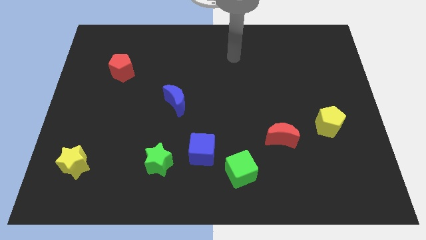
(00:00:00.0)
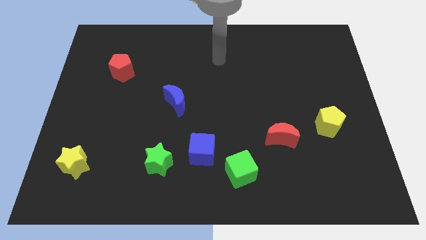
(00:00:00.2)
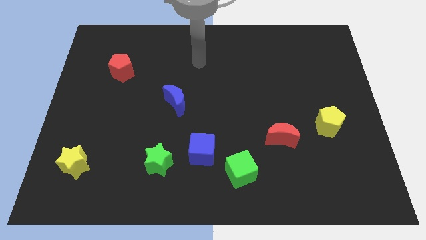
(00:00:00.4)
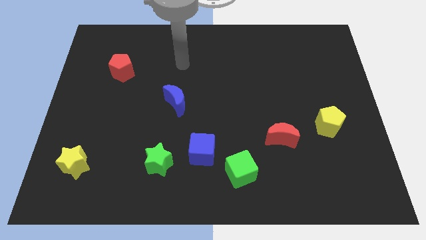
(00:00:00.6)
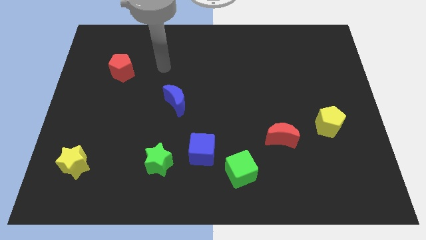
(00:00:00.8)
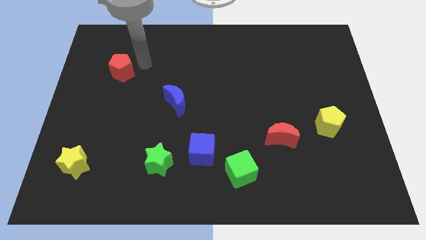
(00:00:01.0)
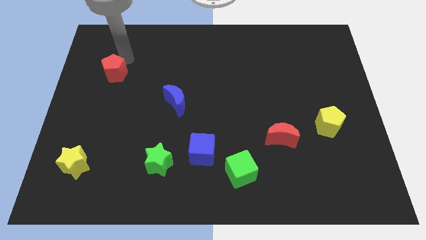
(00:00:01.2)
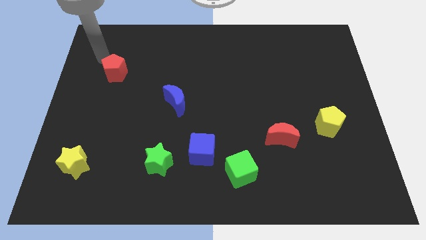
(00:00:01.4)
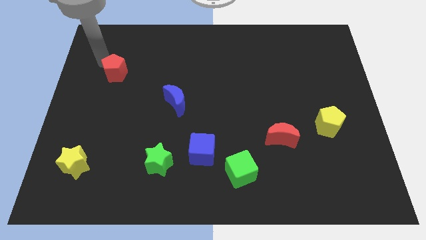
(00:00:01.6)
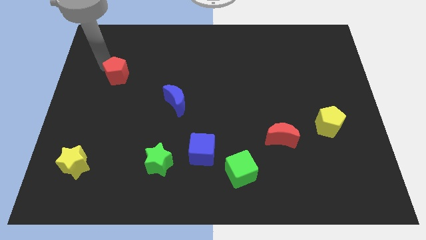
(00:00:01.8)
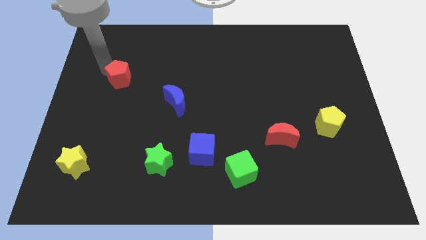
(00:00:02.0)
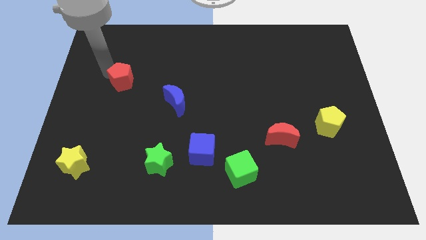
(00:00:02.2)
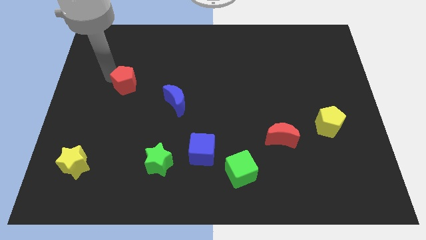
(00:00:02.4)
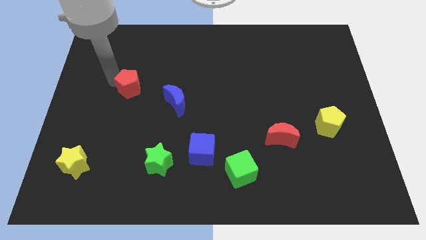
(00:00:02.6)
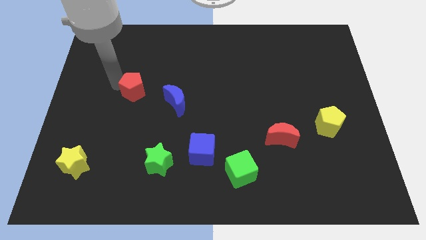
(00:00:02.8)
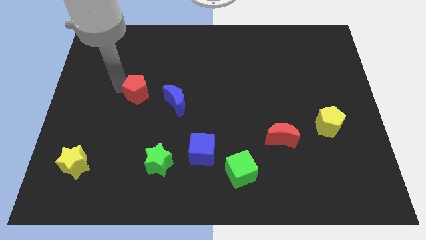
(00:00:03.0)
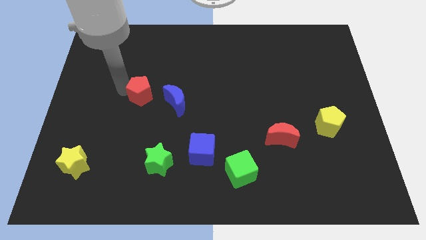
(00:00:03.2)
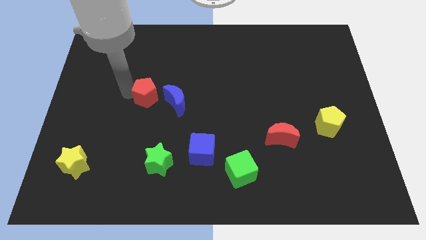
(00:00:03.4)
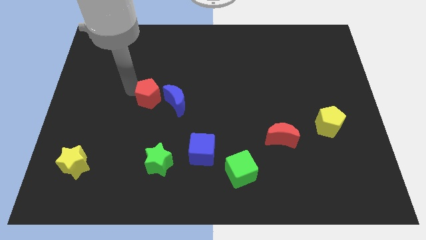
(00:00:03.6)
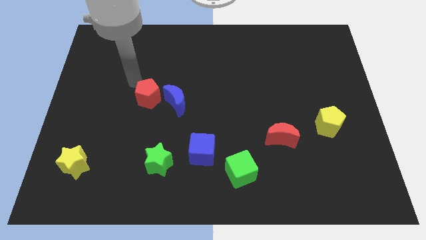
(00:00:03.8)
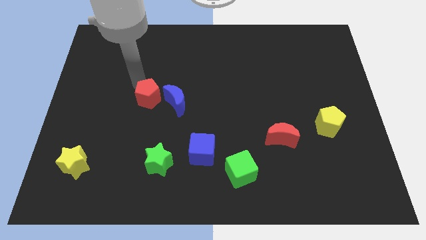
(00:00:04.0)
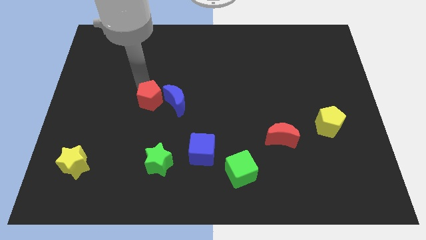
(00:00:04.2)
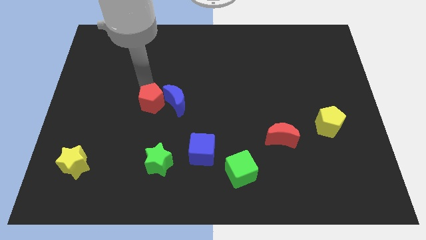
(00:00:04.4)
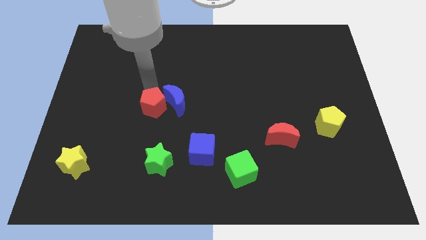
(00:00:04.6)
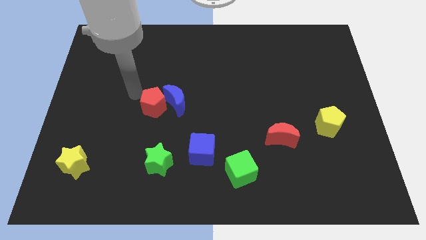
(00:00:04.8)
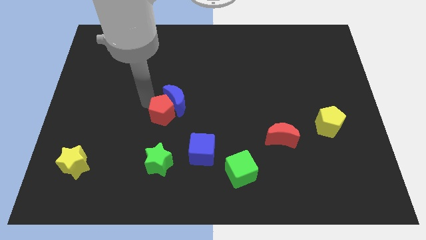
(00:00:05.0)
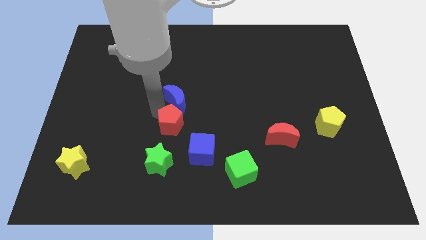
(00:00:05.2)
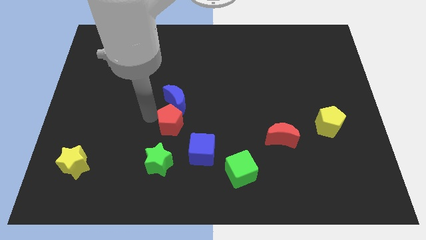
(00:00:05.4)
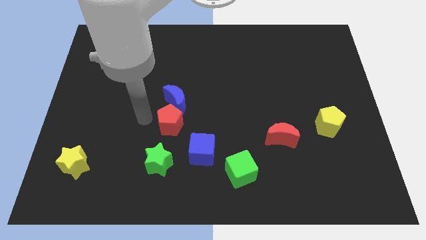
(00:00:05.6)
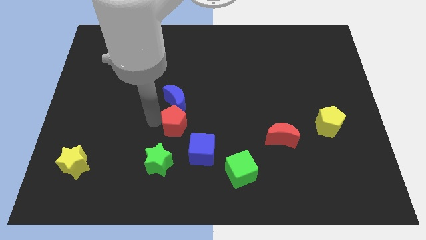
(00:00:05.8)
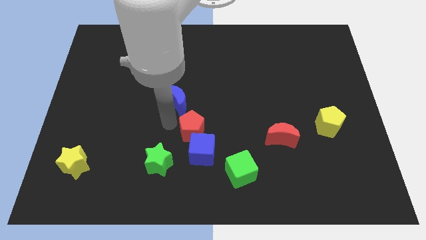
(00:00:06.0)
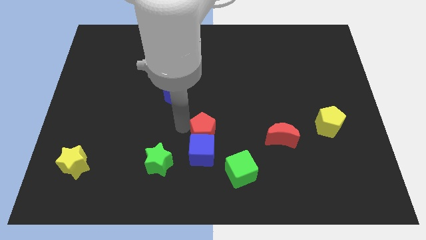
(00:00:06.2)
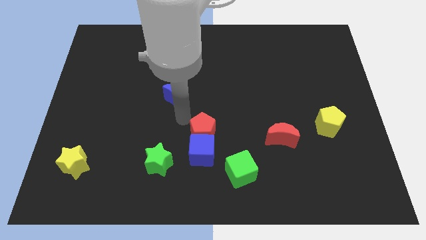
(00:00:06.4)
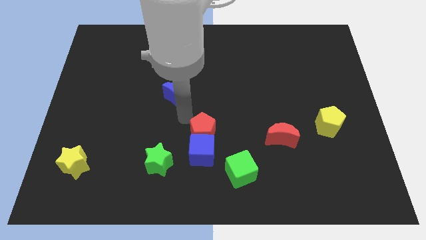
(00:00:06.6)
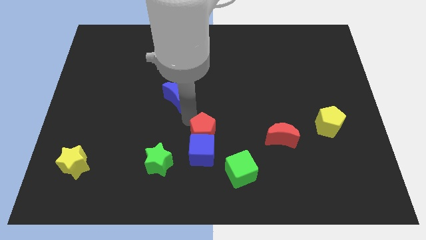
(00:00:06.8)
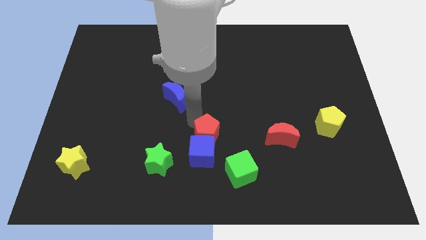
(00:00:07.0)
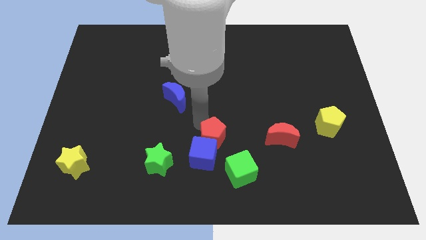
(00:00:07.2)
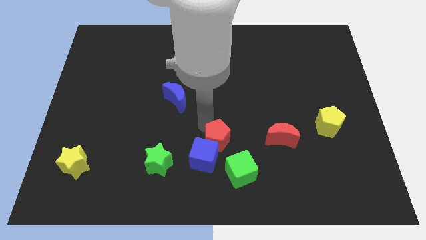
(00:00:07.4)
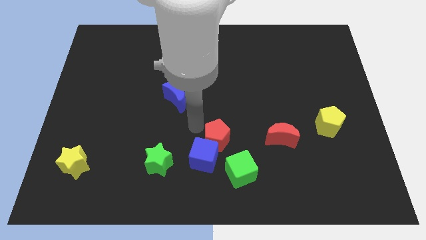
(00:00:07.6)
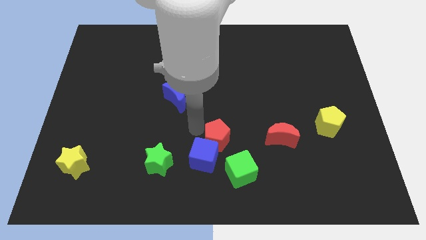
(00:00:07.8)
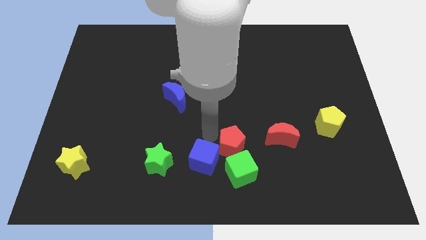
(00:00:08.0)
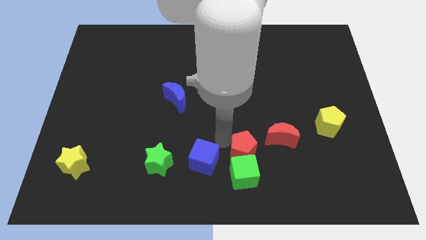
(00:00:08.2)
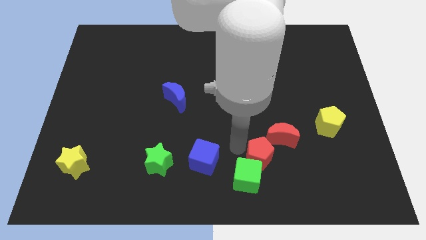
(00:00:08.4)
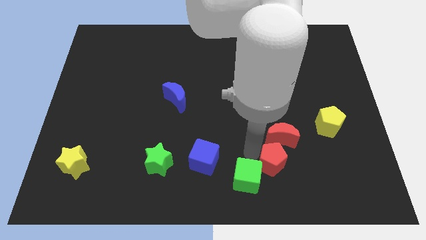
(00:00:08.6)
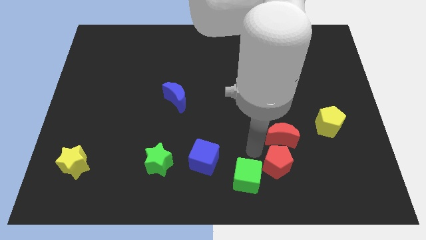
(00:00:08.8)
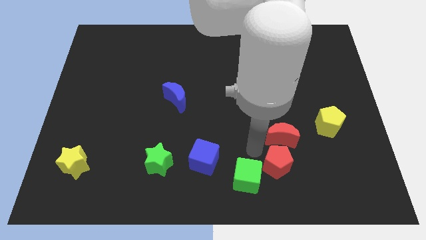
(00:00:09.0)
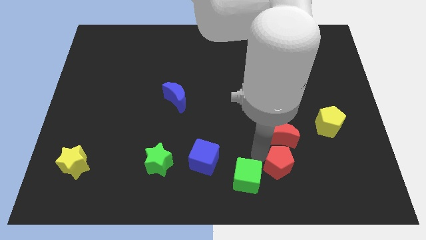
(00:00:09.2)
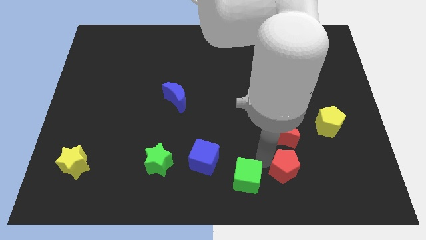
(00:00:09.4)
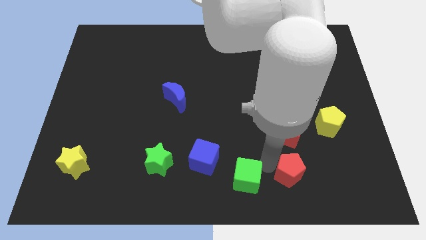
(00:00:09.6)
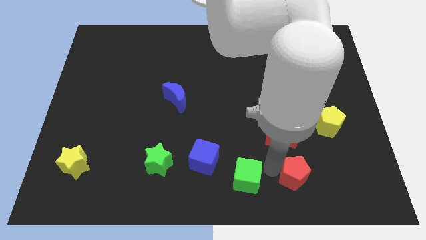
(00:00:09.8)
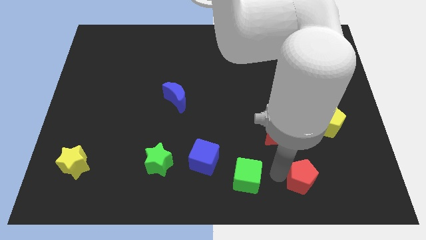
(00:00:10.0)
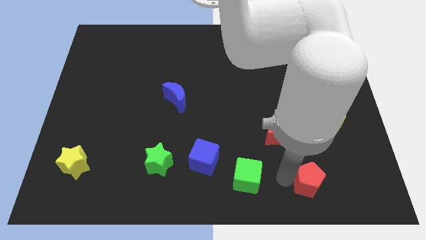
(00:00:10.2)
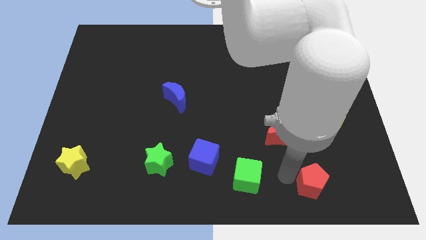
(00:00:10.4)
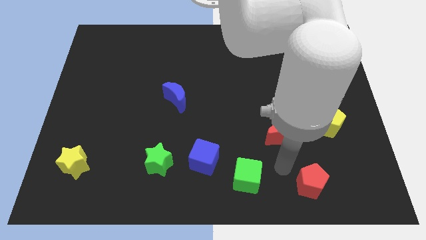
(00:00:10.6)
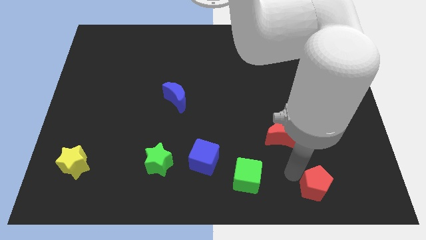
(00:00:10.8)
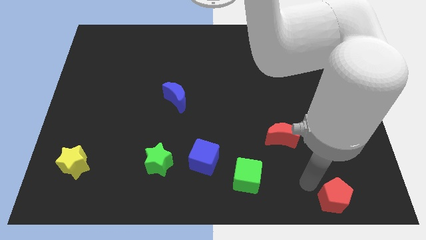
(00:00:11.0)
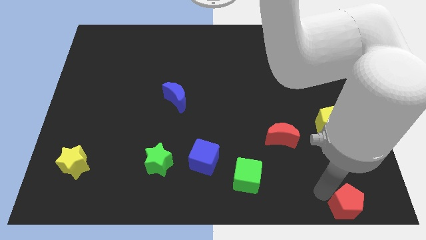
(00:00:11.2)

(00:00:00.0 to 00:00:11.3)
put the red pentagon to the bottom right corner
